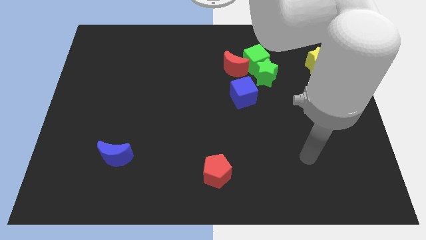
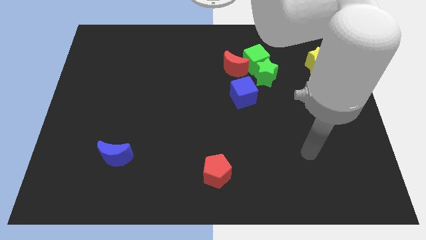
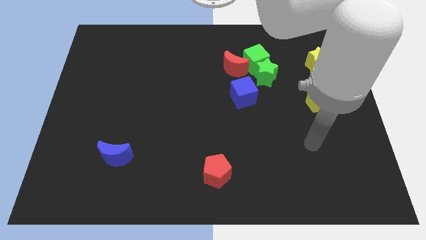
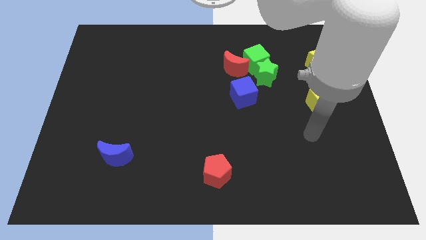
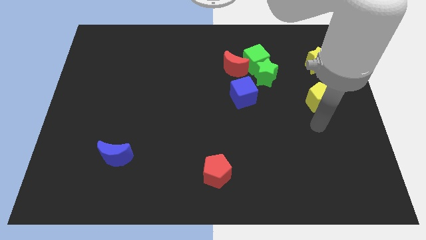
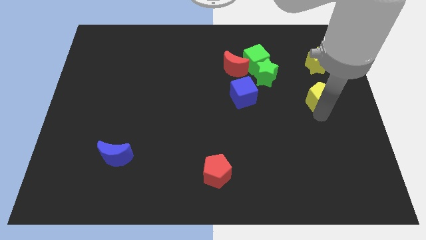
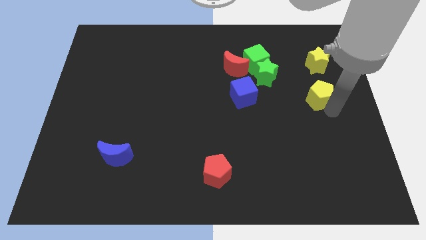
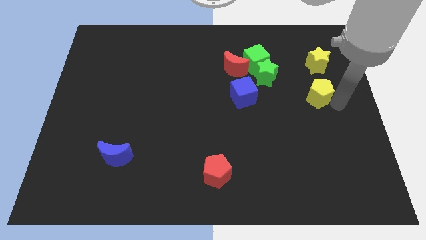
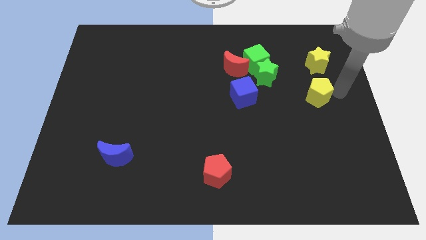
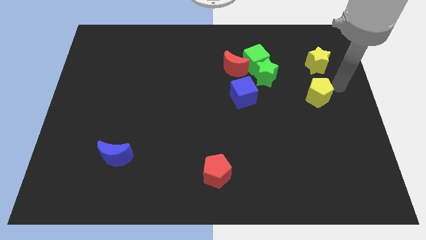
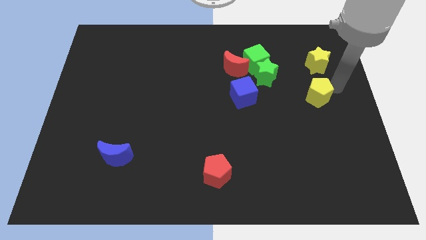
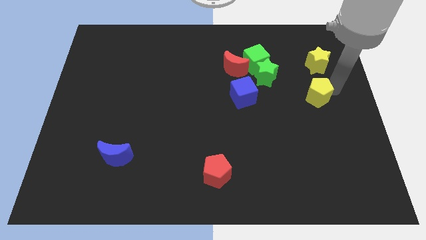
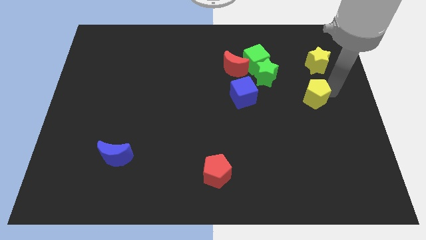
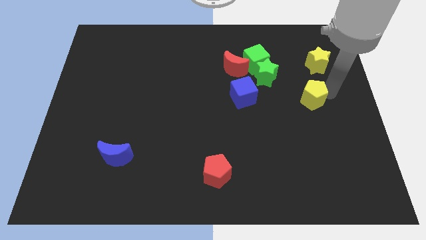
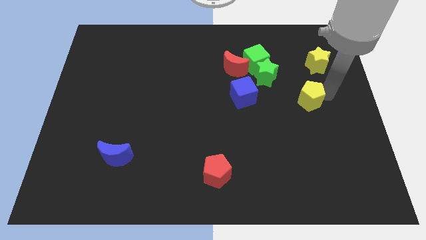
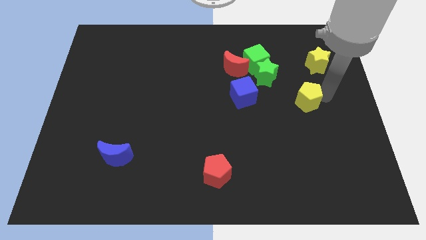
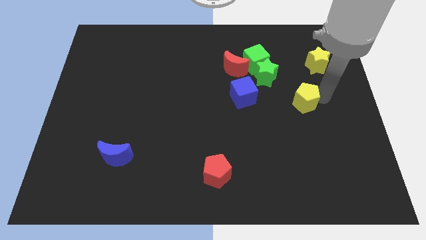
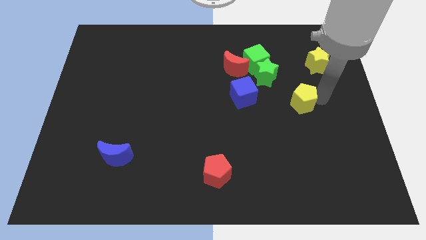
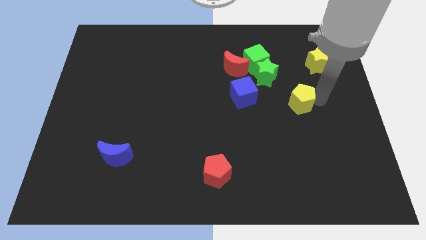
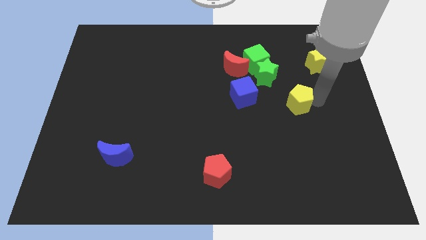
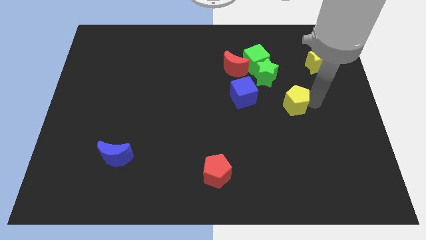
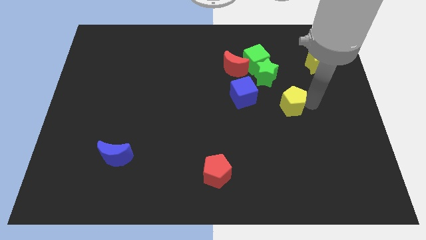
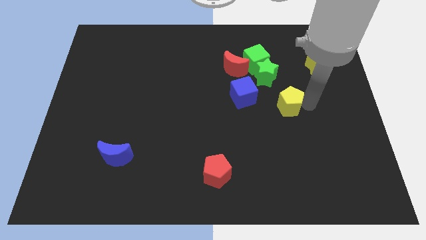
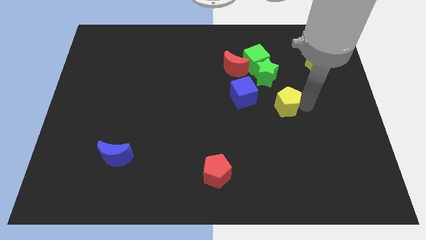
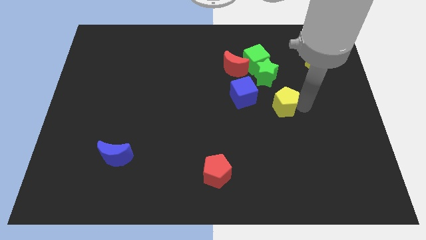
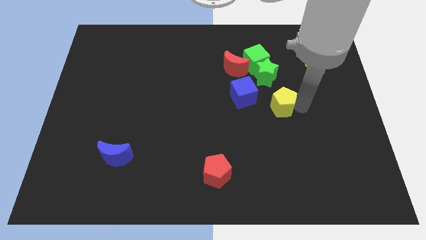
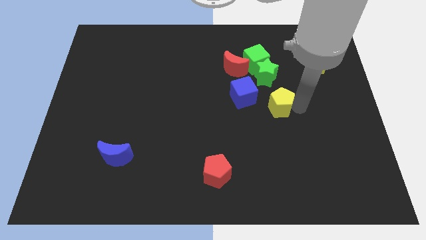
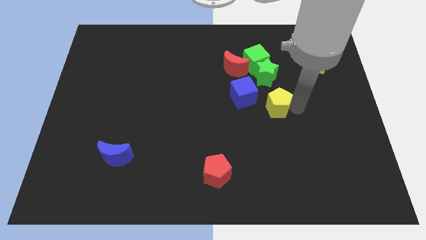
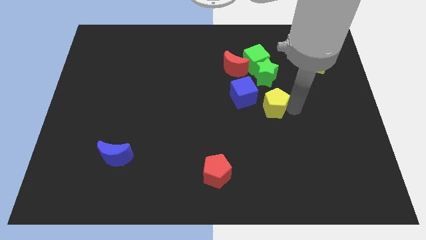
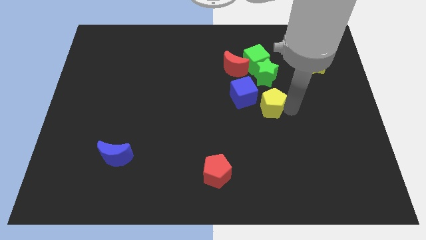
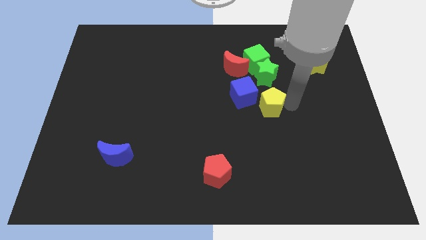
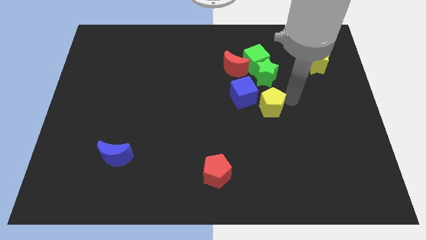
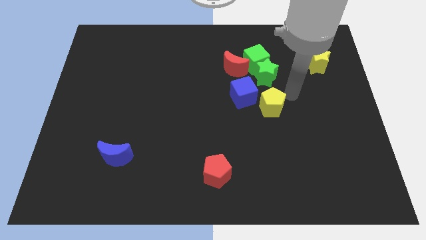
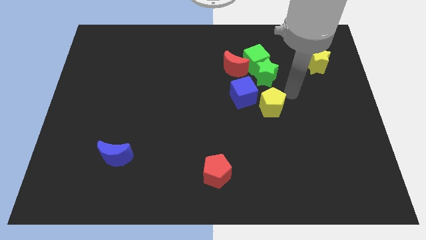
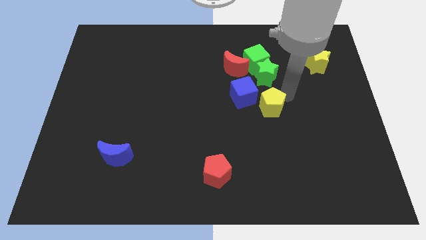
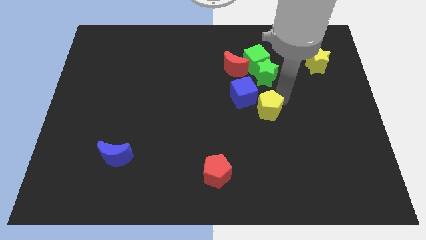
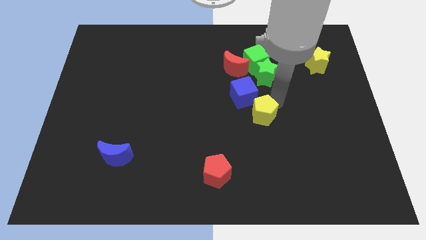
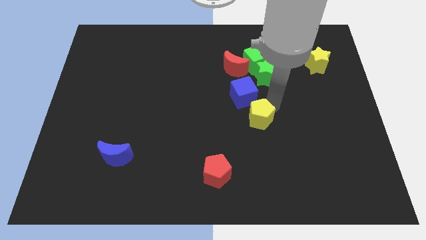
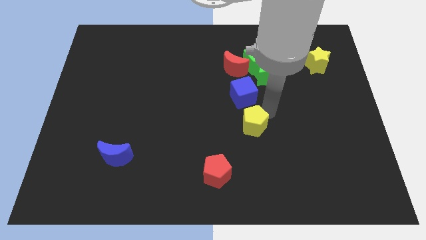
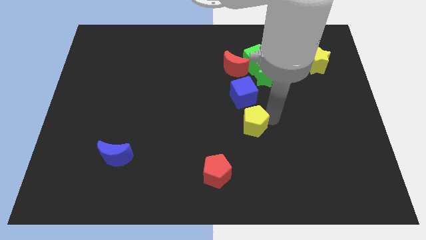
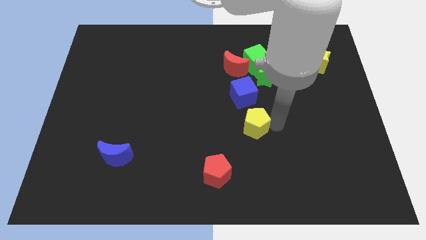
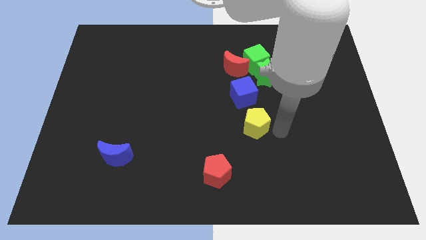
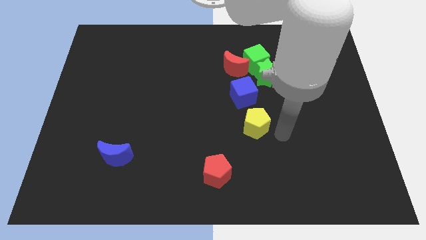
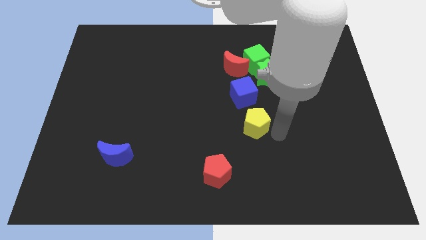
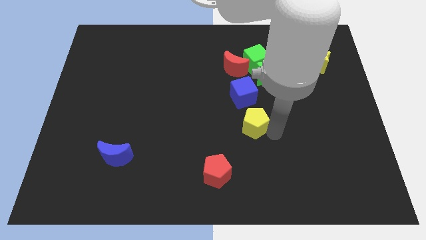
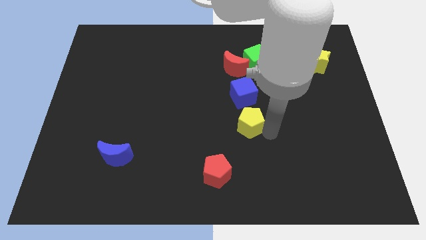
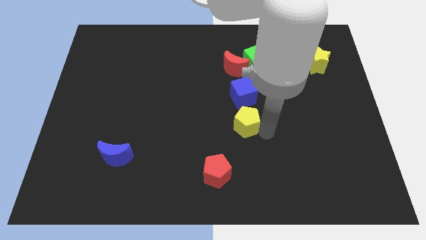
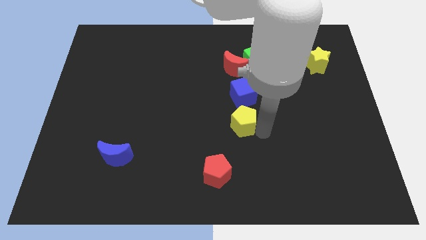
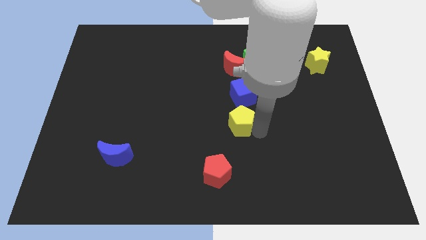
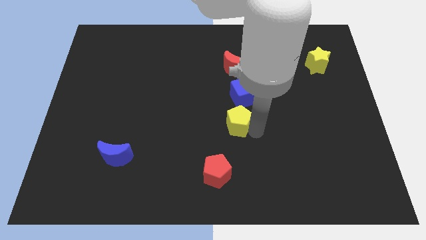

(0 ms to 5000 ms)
put the yellow pentagon to the bottom left of the blue cube

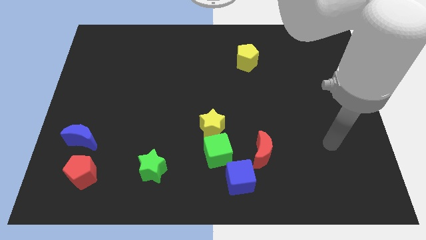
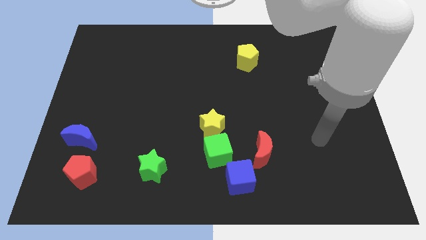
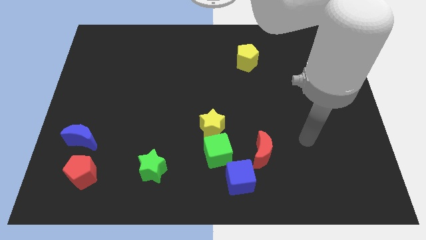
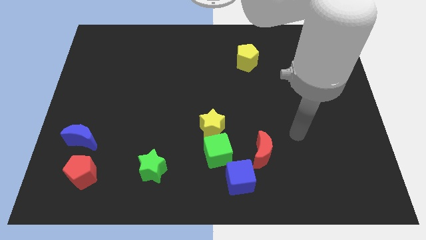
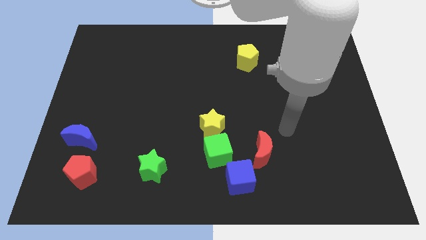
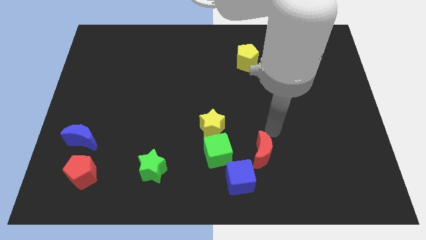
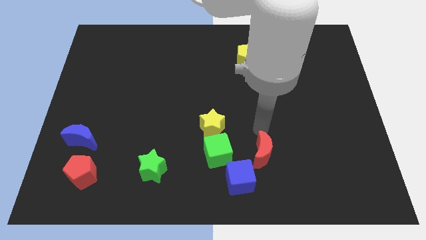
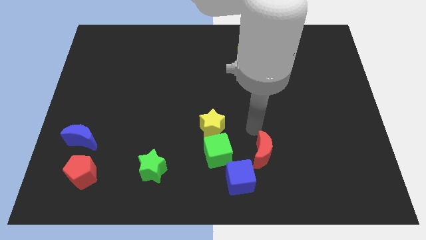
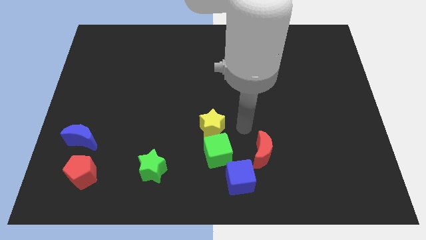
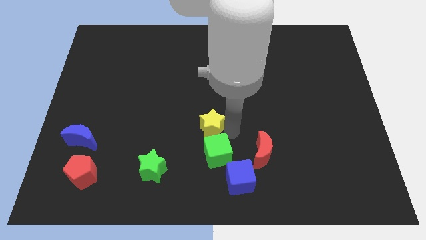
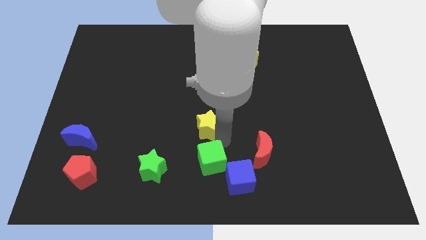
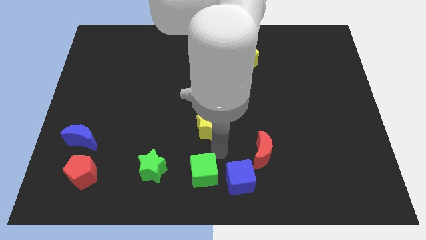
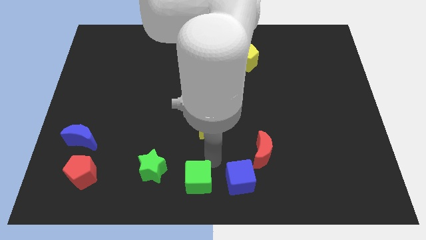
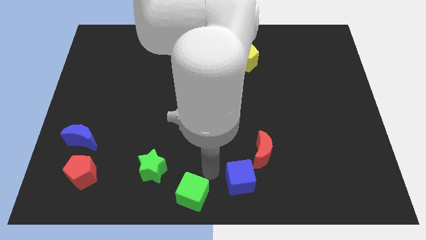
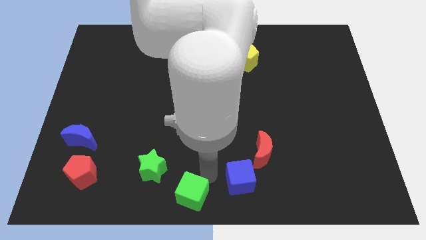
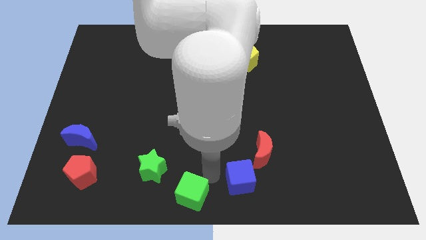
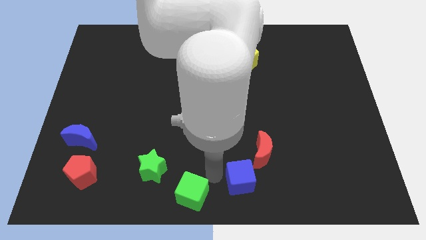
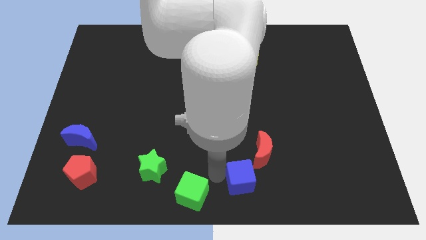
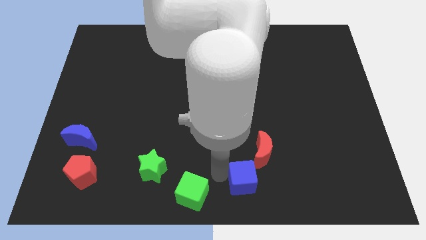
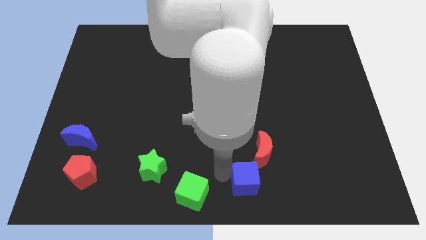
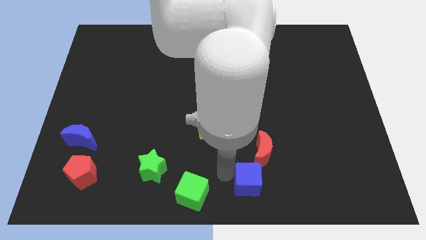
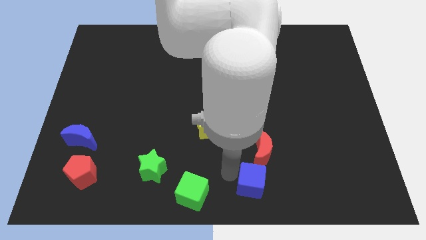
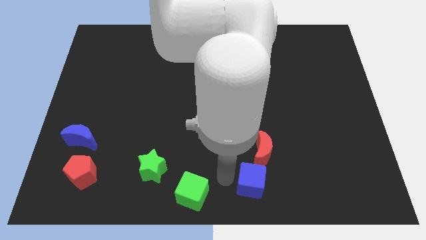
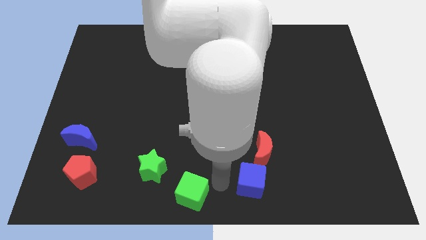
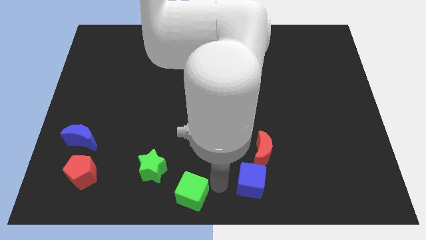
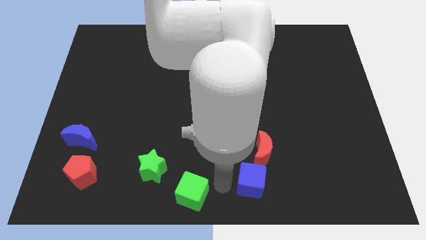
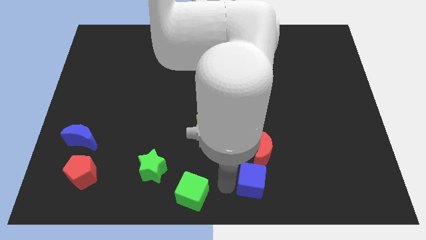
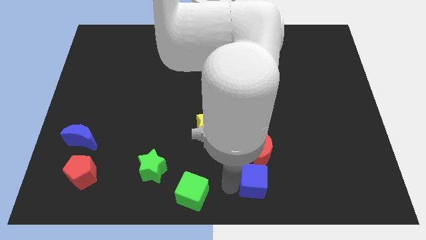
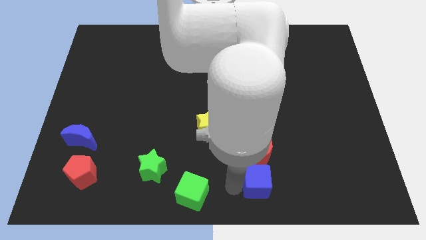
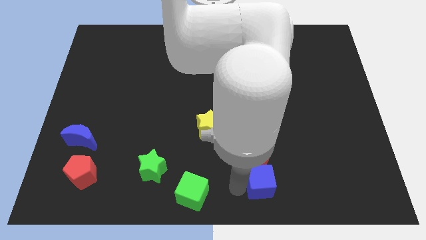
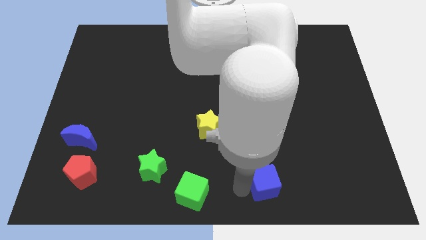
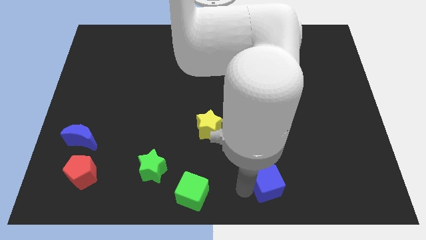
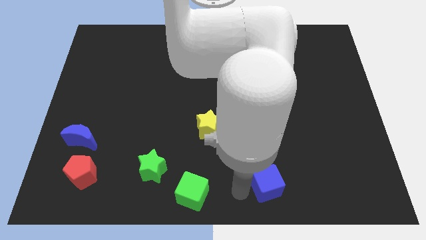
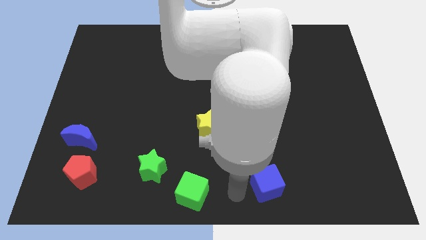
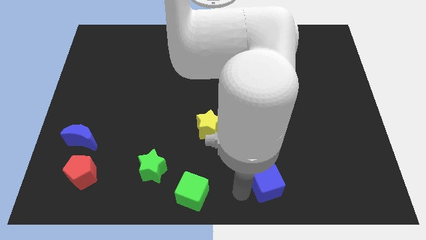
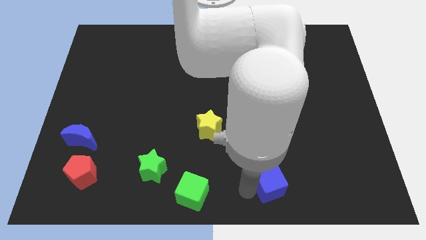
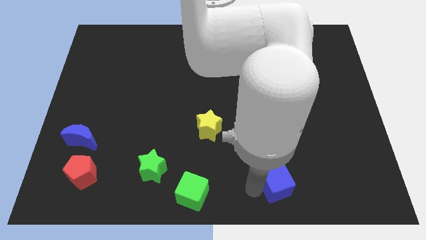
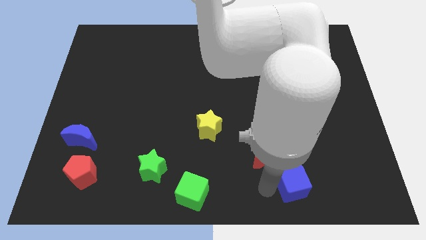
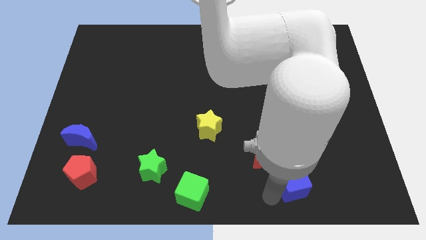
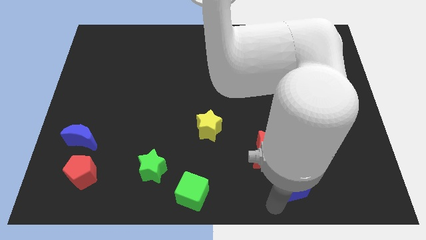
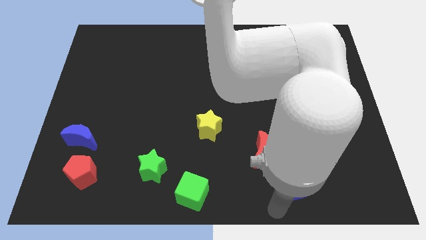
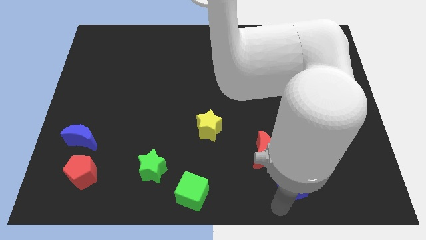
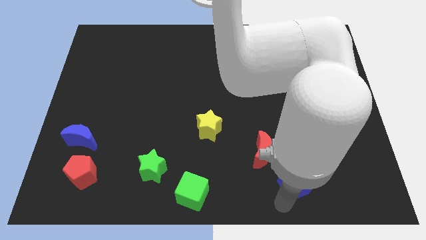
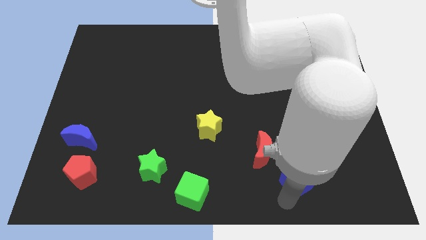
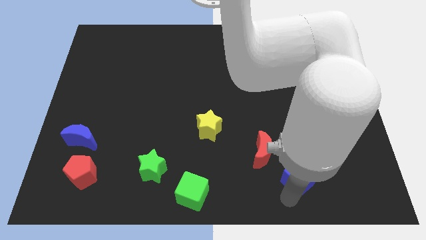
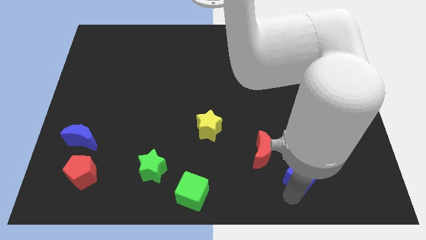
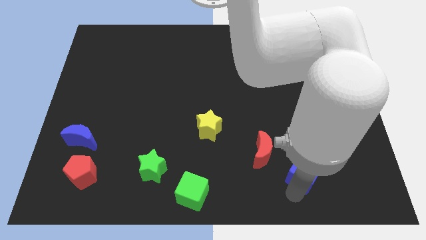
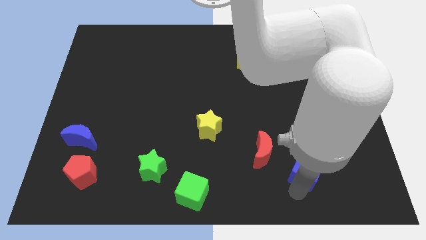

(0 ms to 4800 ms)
push the blue cube to the right side of the red moon
